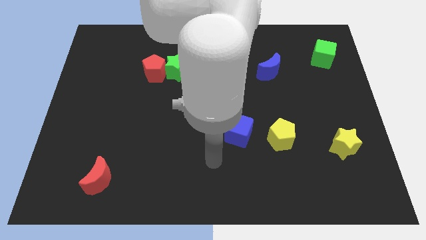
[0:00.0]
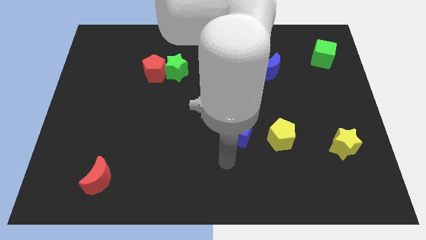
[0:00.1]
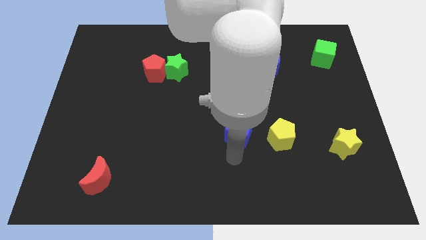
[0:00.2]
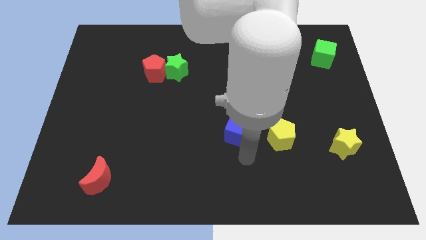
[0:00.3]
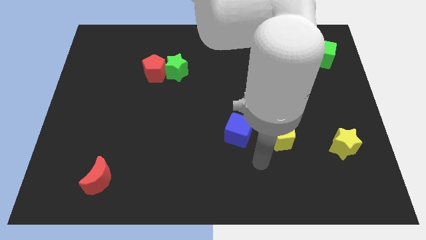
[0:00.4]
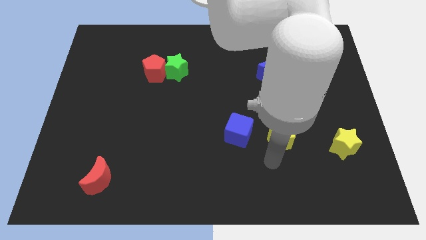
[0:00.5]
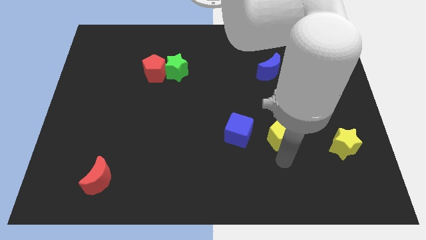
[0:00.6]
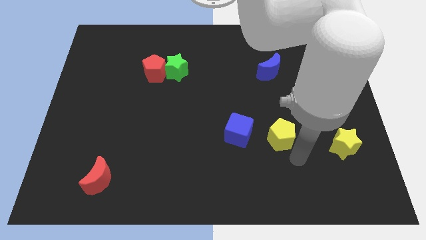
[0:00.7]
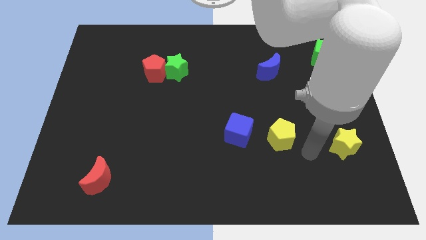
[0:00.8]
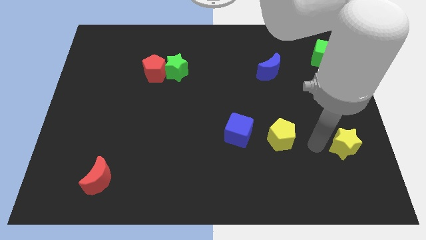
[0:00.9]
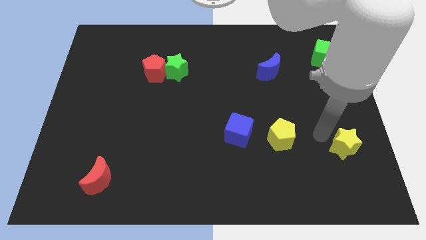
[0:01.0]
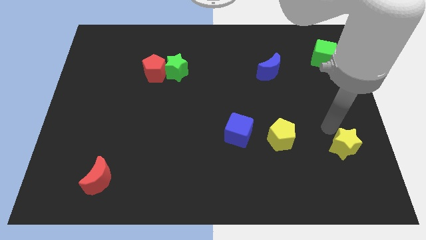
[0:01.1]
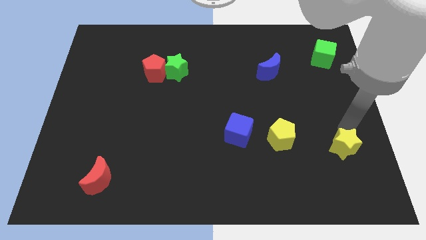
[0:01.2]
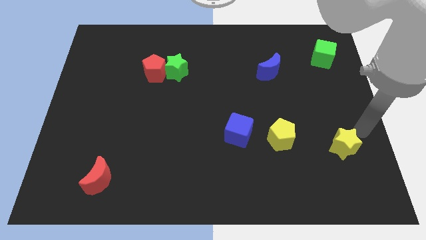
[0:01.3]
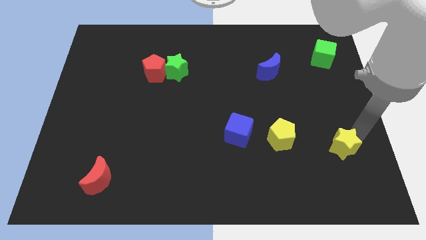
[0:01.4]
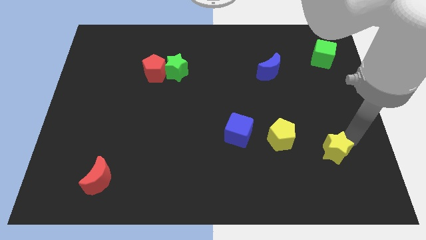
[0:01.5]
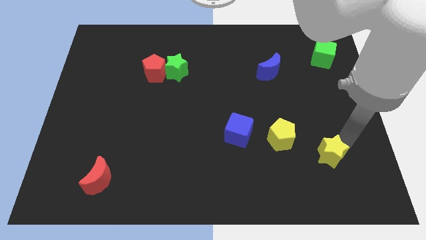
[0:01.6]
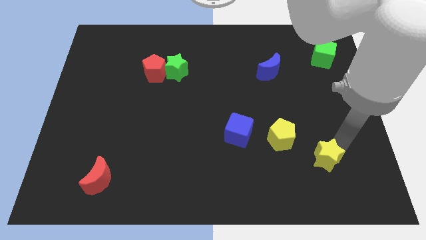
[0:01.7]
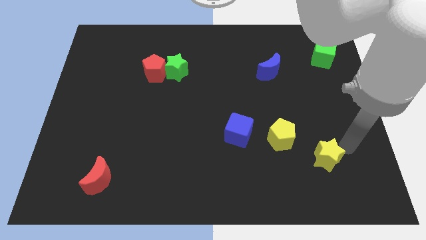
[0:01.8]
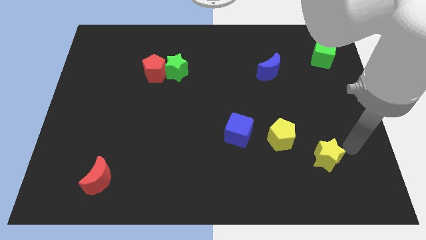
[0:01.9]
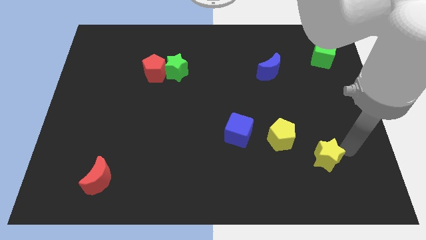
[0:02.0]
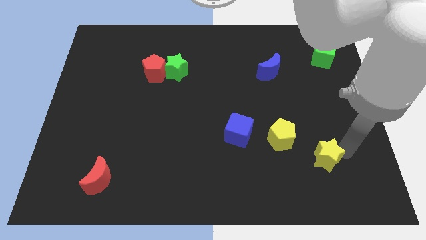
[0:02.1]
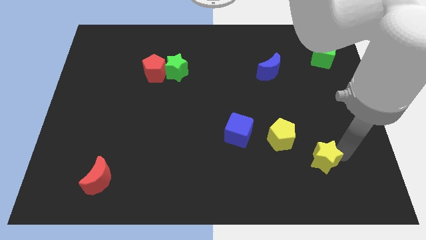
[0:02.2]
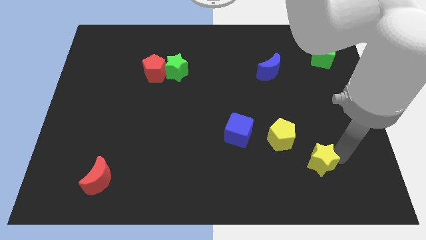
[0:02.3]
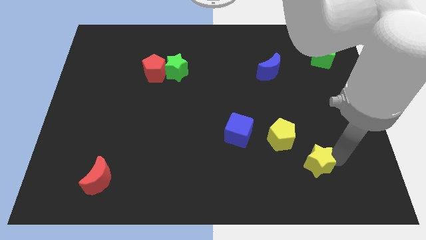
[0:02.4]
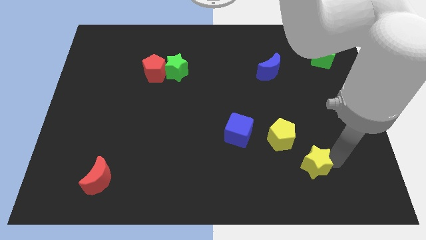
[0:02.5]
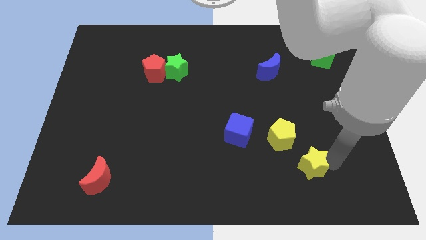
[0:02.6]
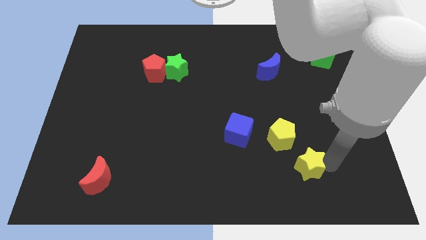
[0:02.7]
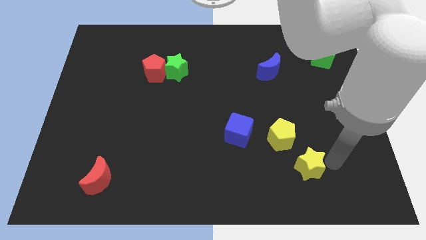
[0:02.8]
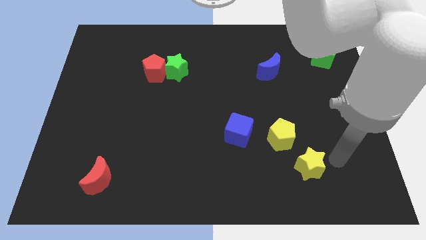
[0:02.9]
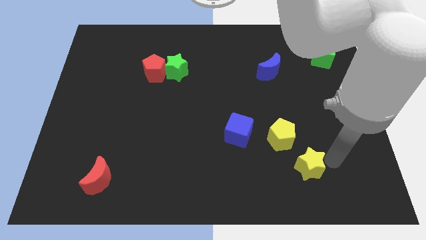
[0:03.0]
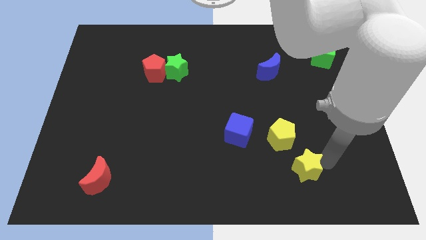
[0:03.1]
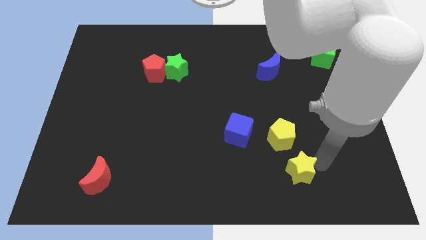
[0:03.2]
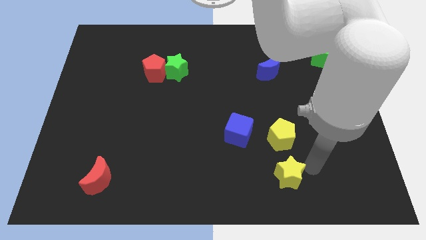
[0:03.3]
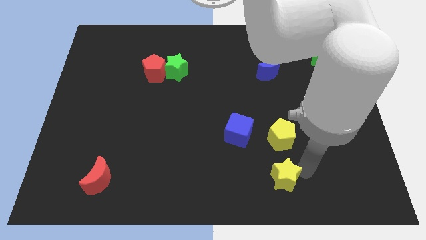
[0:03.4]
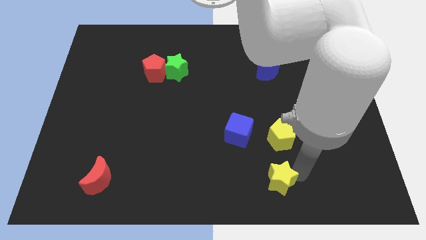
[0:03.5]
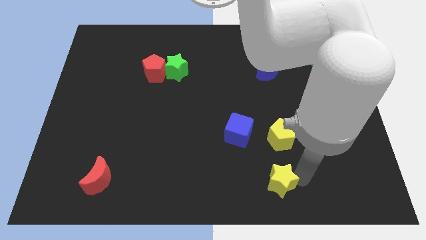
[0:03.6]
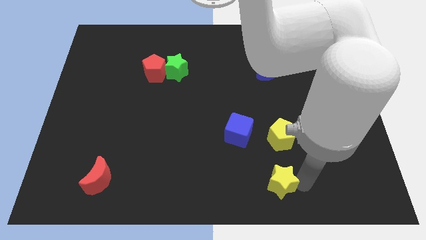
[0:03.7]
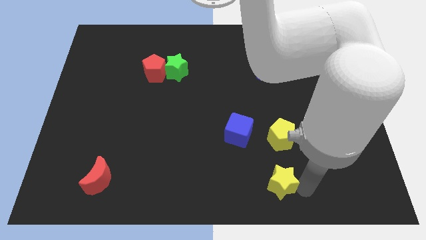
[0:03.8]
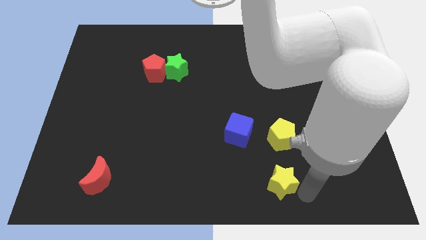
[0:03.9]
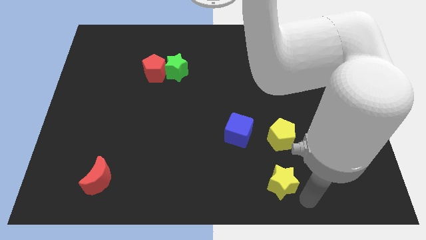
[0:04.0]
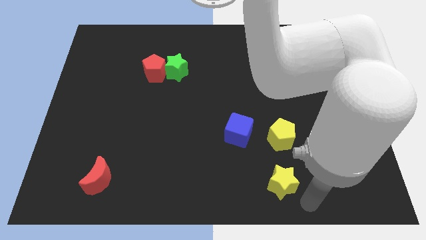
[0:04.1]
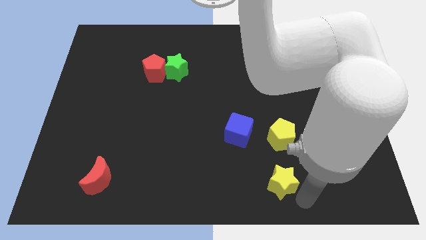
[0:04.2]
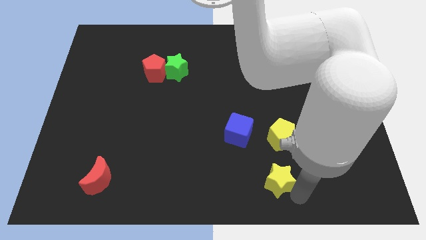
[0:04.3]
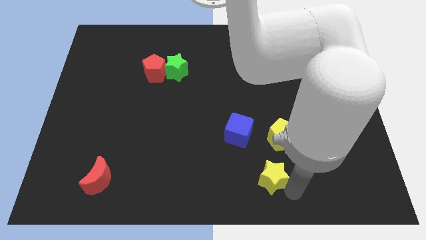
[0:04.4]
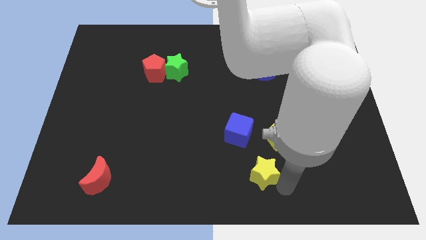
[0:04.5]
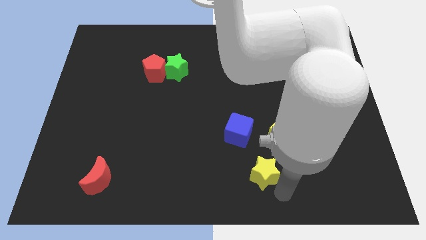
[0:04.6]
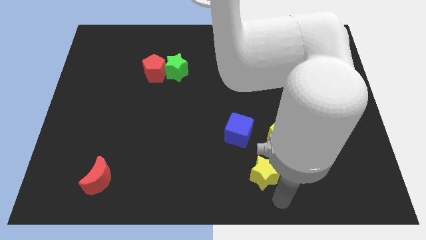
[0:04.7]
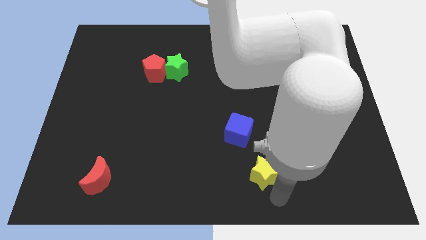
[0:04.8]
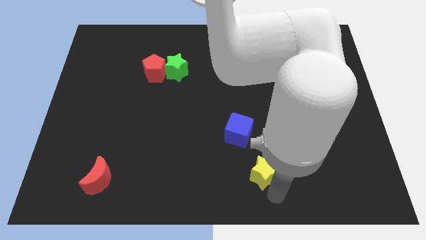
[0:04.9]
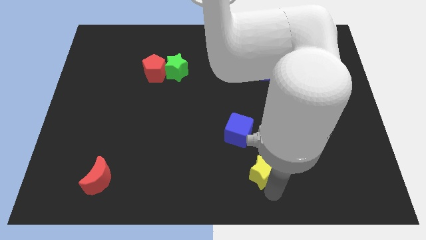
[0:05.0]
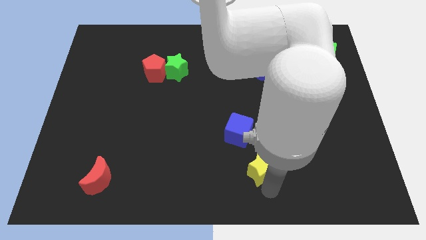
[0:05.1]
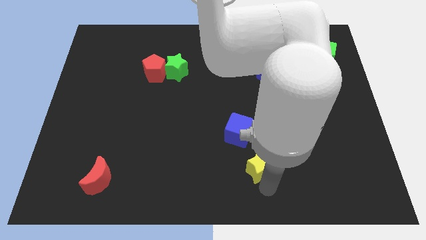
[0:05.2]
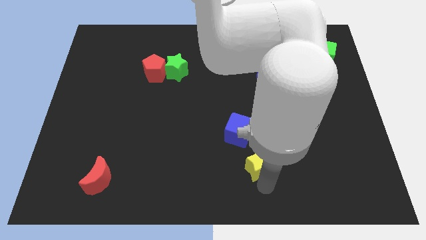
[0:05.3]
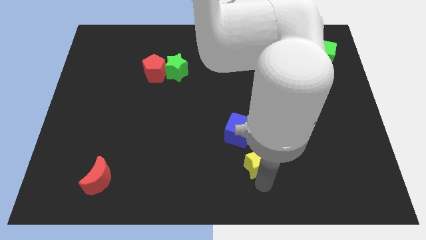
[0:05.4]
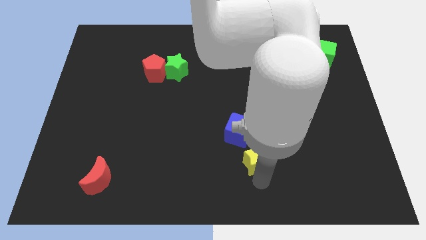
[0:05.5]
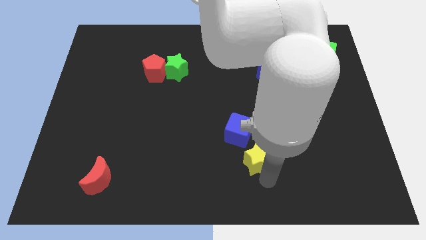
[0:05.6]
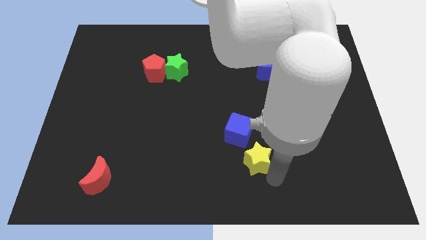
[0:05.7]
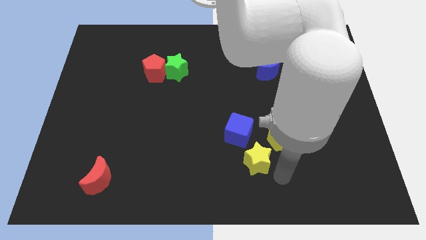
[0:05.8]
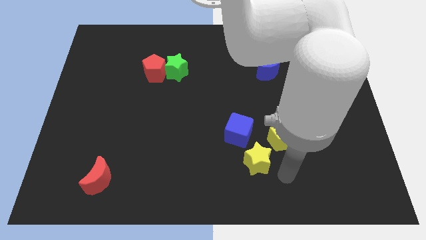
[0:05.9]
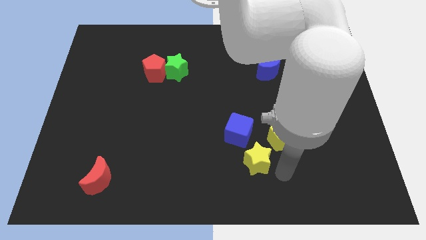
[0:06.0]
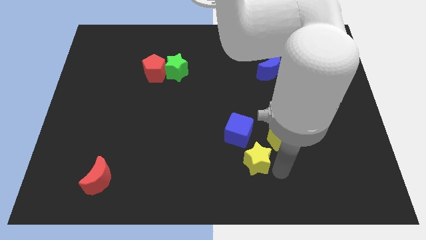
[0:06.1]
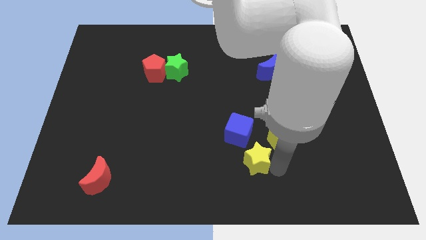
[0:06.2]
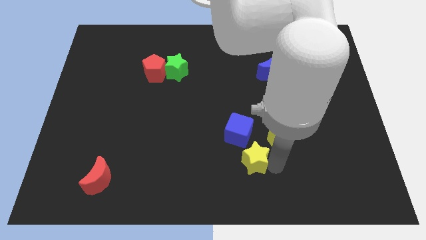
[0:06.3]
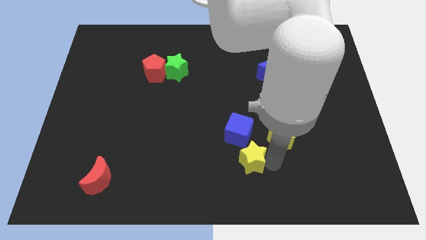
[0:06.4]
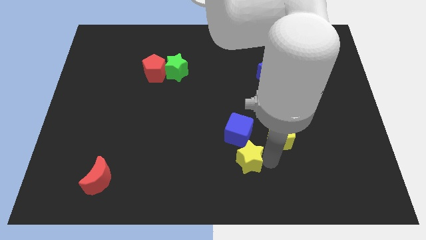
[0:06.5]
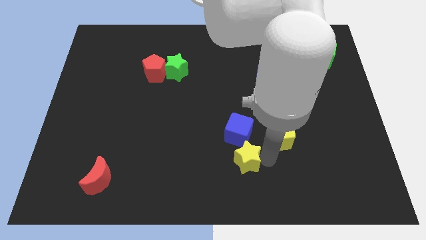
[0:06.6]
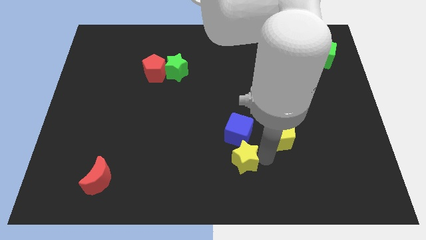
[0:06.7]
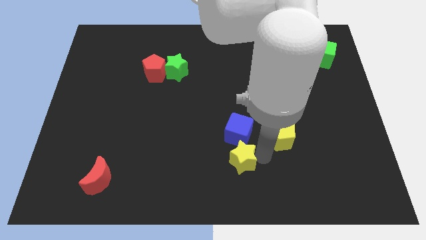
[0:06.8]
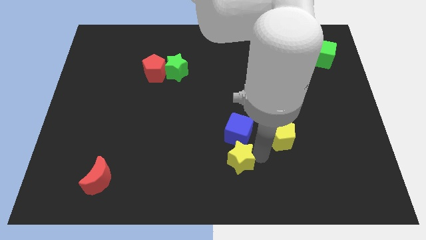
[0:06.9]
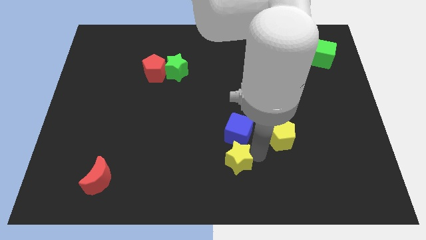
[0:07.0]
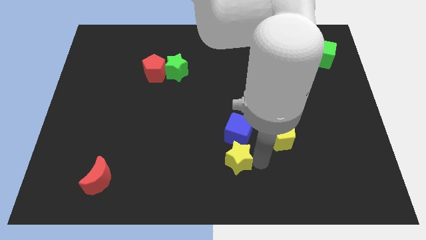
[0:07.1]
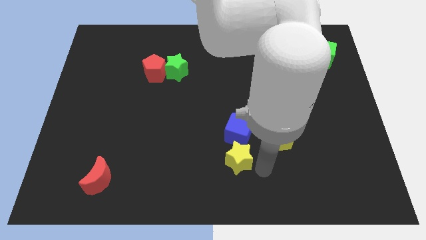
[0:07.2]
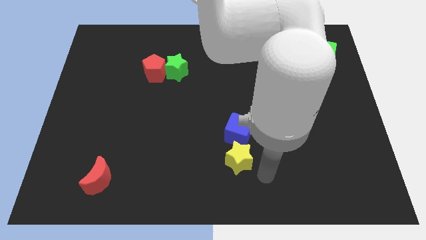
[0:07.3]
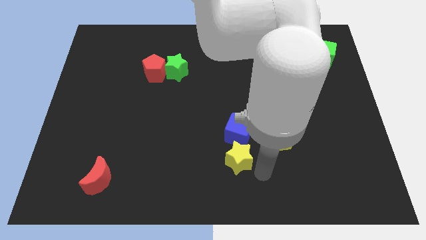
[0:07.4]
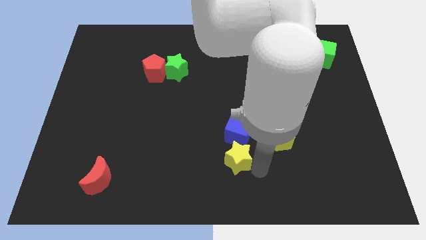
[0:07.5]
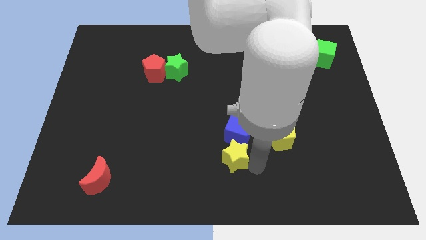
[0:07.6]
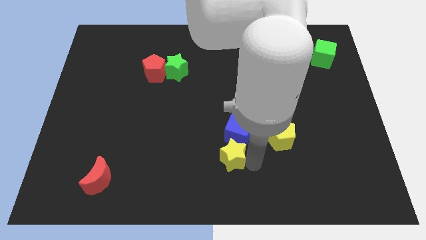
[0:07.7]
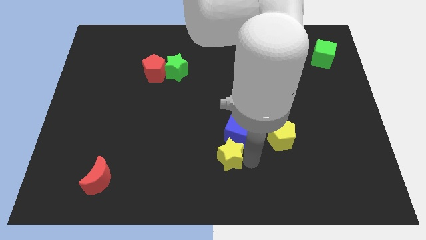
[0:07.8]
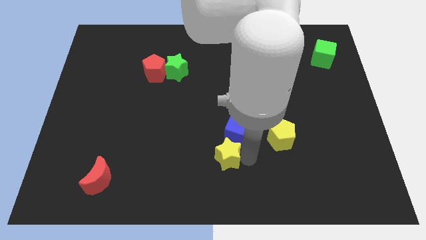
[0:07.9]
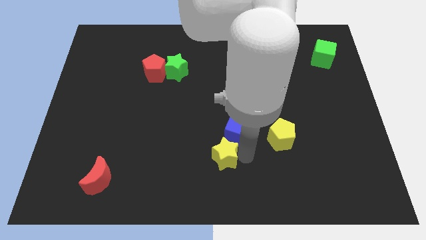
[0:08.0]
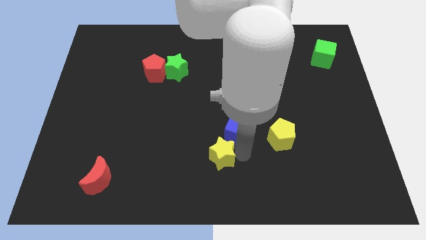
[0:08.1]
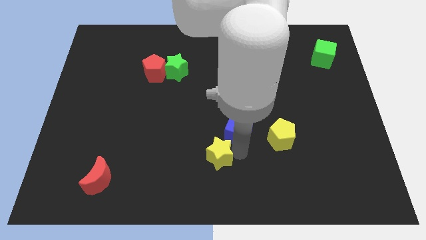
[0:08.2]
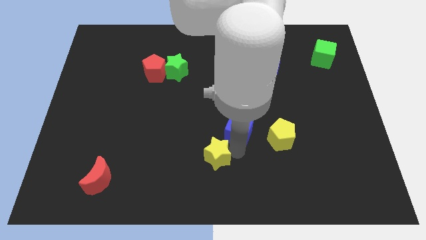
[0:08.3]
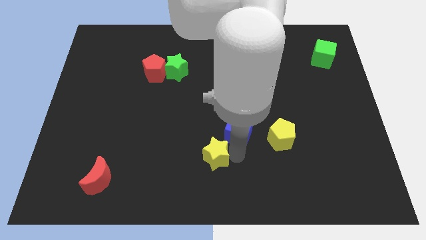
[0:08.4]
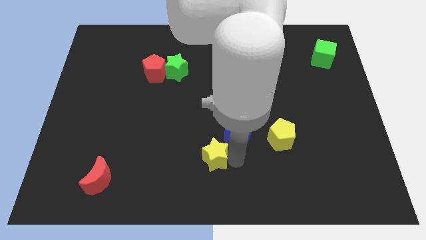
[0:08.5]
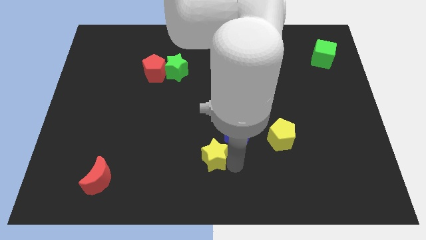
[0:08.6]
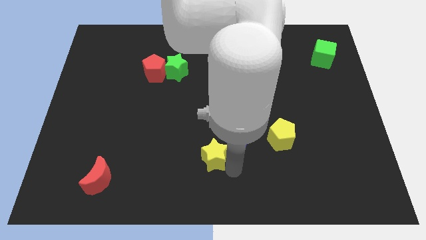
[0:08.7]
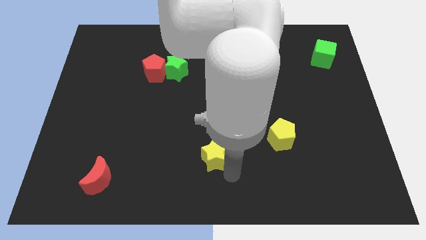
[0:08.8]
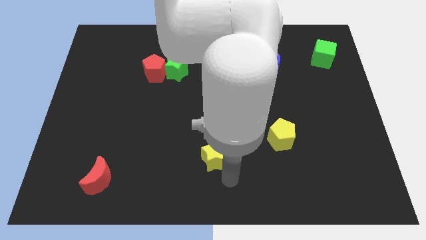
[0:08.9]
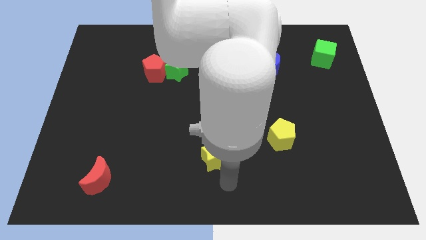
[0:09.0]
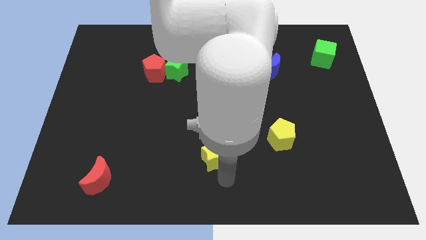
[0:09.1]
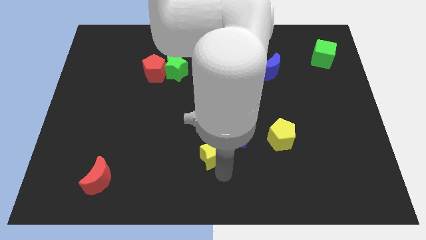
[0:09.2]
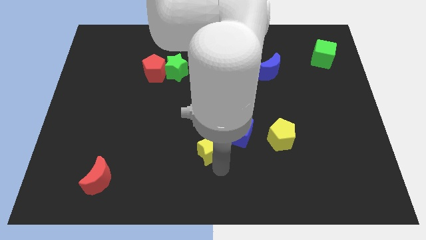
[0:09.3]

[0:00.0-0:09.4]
slide the yellow star to the left of the blue cube
